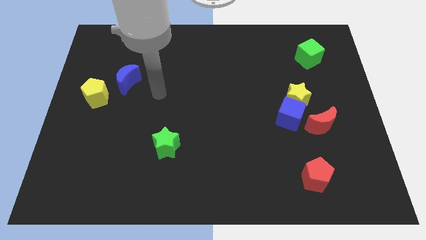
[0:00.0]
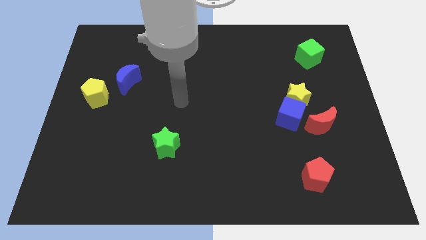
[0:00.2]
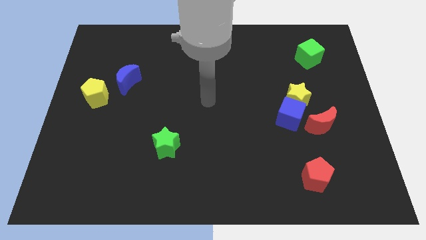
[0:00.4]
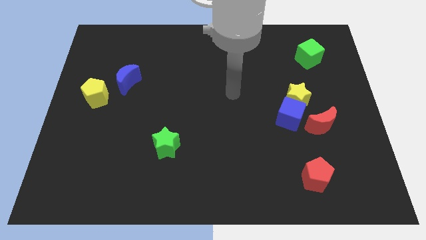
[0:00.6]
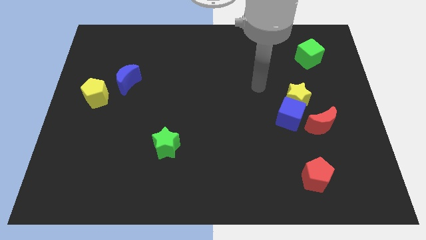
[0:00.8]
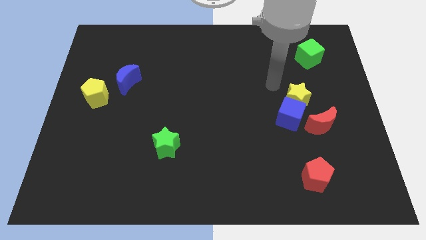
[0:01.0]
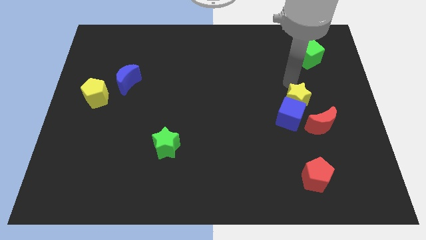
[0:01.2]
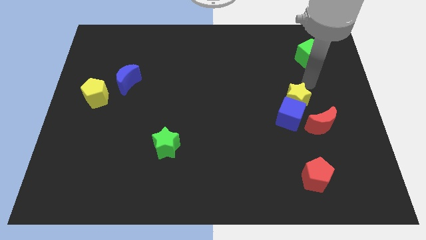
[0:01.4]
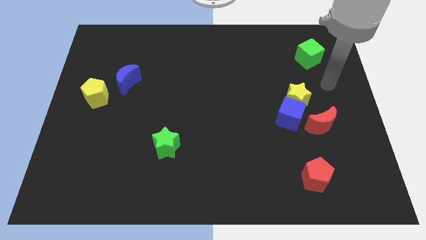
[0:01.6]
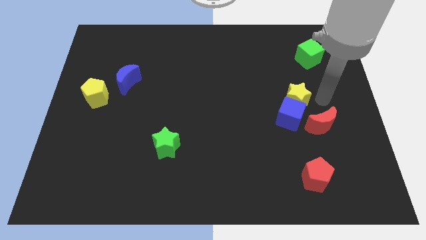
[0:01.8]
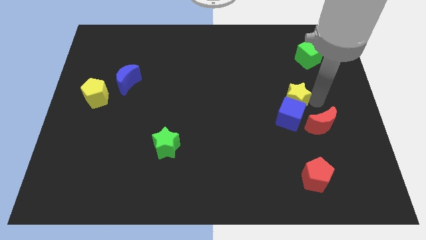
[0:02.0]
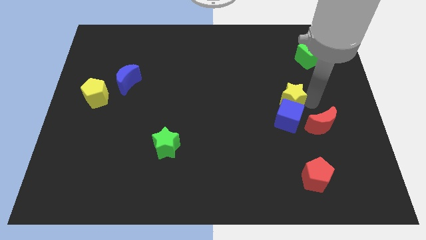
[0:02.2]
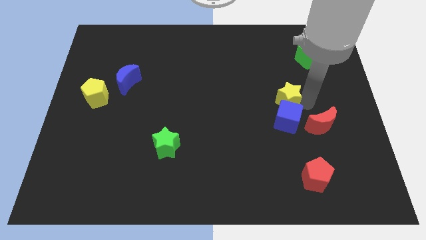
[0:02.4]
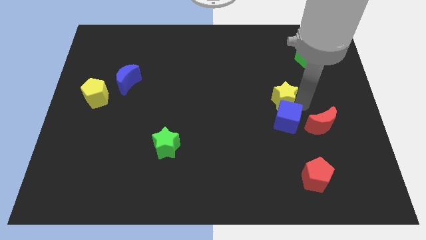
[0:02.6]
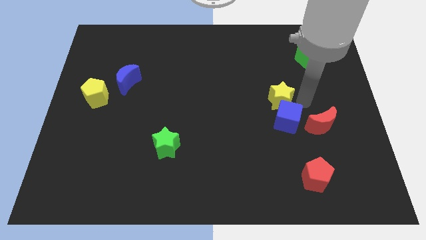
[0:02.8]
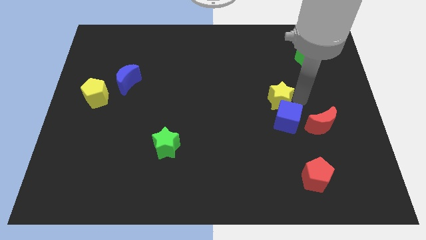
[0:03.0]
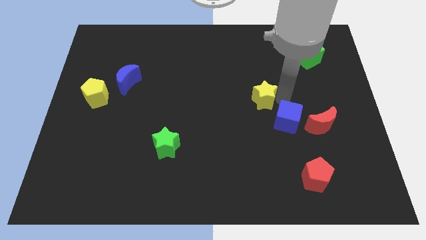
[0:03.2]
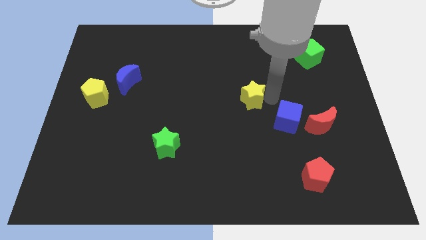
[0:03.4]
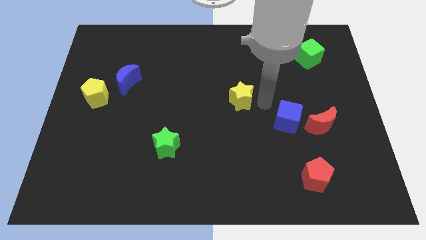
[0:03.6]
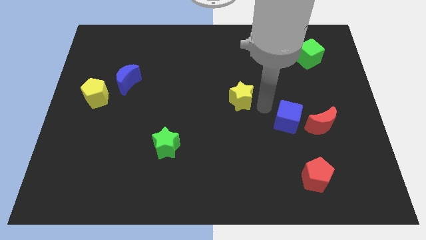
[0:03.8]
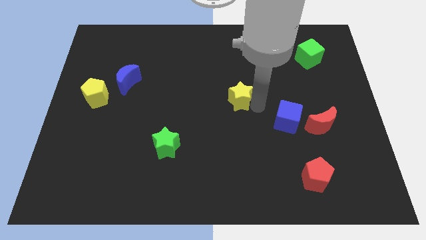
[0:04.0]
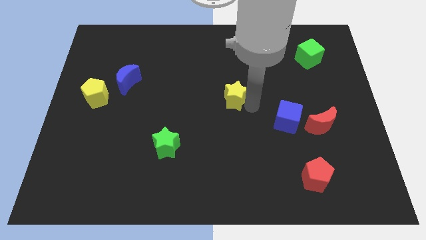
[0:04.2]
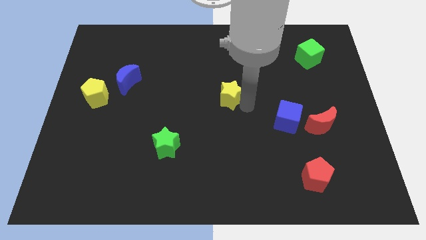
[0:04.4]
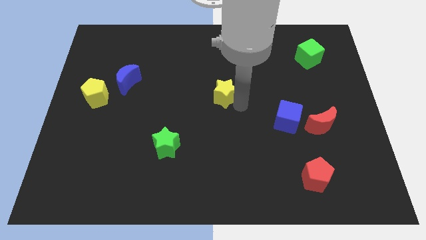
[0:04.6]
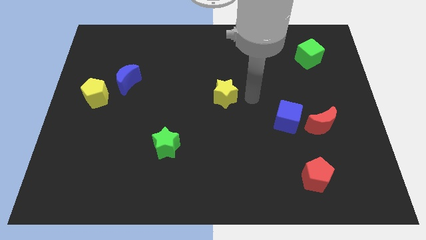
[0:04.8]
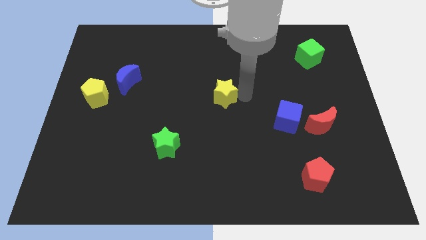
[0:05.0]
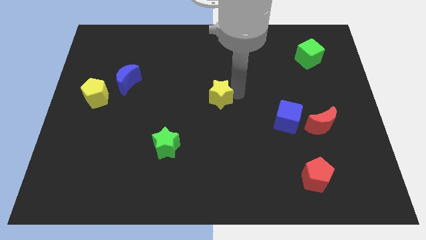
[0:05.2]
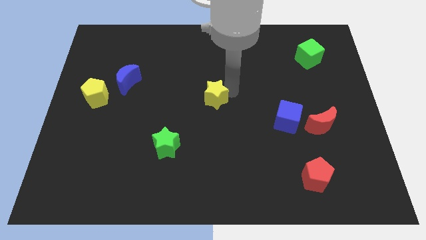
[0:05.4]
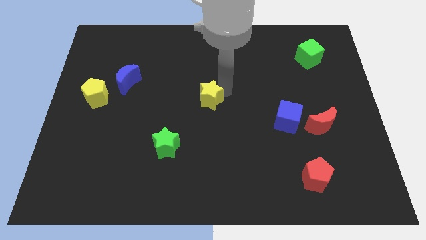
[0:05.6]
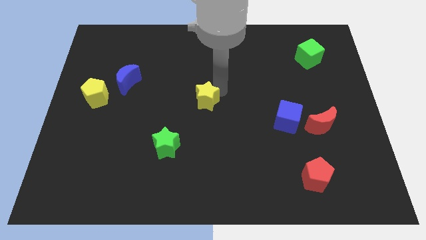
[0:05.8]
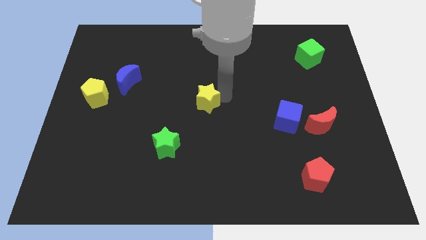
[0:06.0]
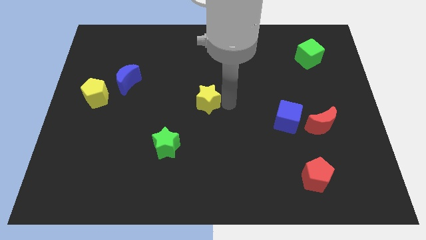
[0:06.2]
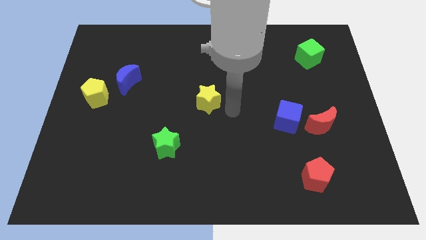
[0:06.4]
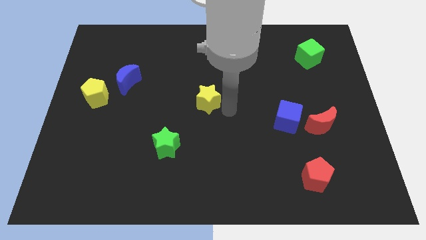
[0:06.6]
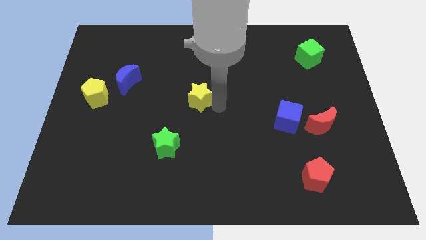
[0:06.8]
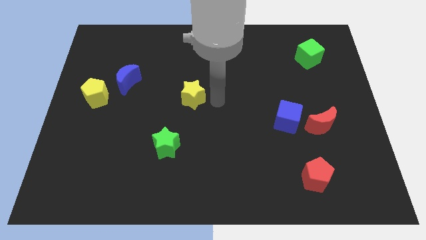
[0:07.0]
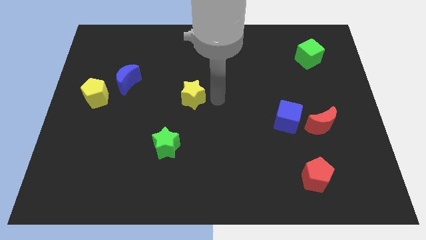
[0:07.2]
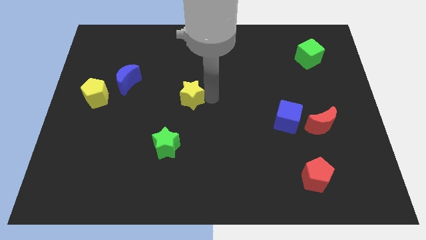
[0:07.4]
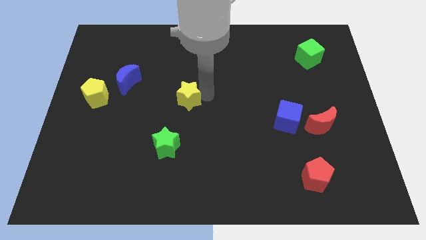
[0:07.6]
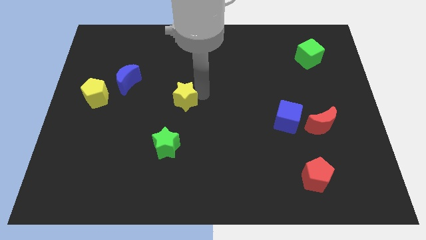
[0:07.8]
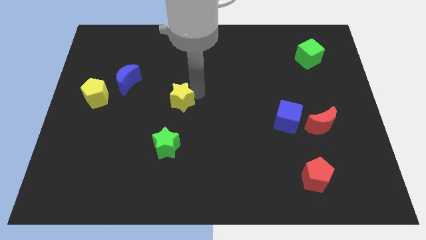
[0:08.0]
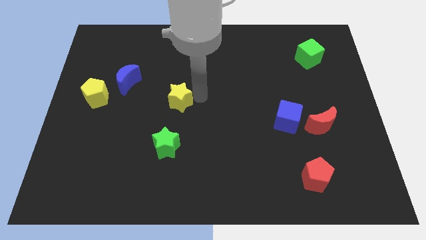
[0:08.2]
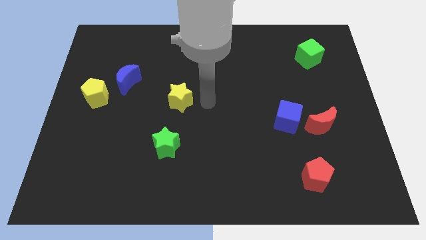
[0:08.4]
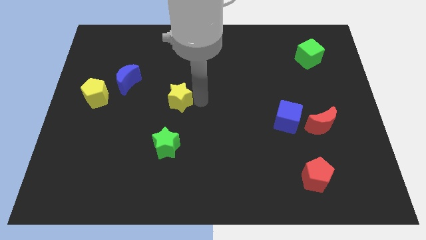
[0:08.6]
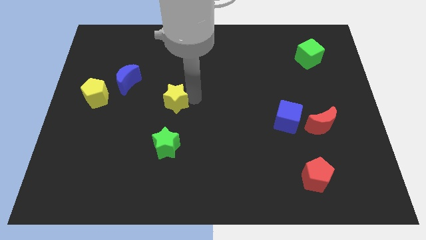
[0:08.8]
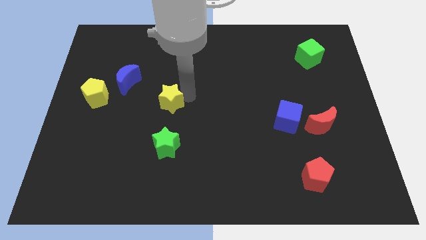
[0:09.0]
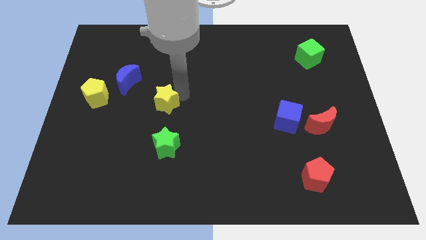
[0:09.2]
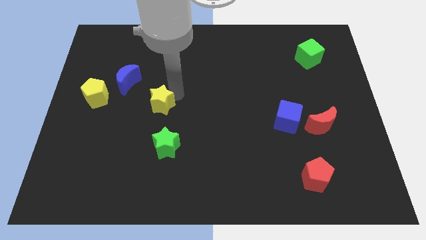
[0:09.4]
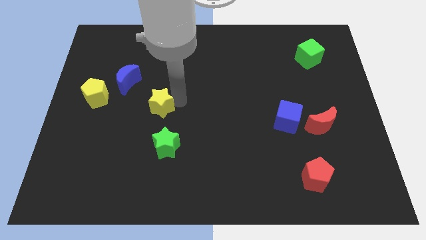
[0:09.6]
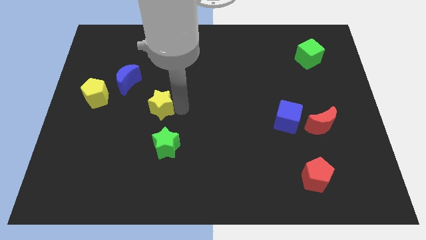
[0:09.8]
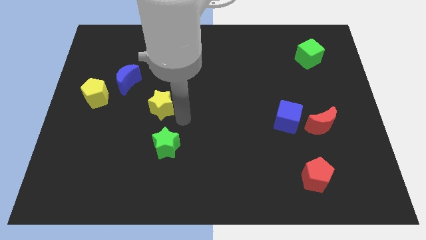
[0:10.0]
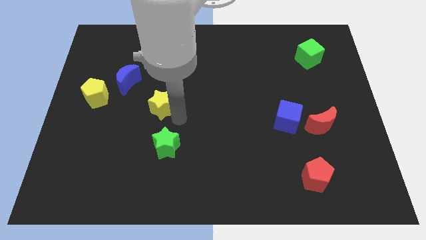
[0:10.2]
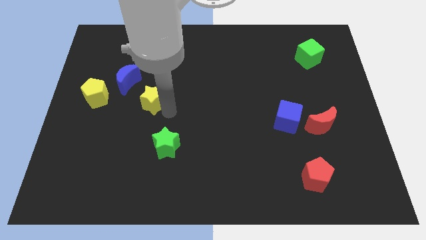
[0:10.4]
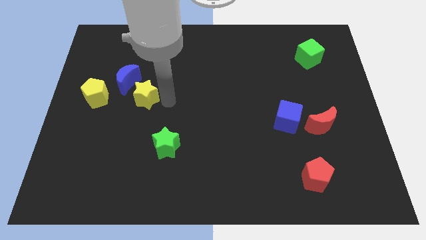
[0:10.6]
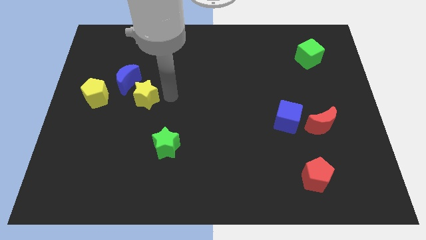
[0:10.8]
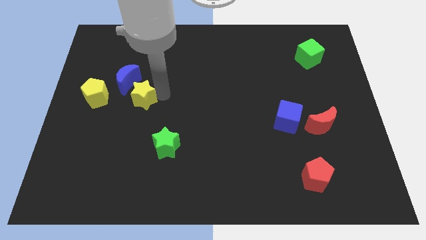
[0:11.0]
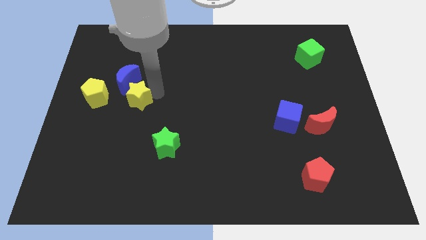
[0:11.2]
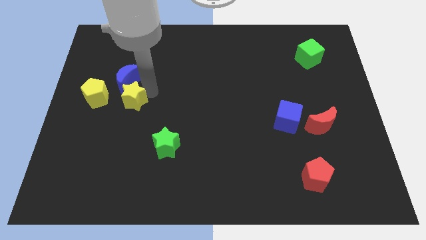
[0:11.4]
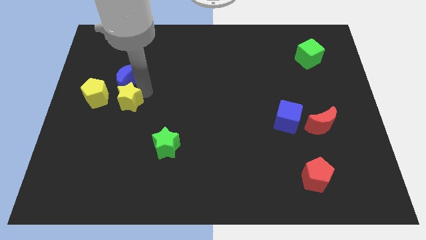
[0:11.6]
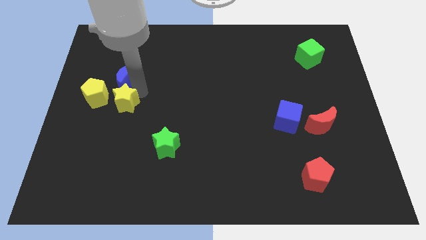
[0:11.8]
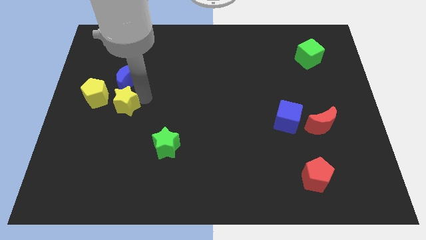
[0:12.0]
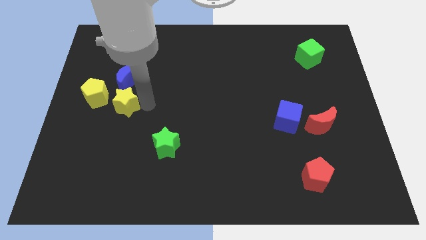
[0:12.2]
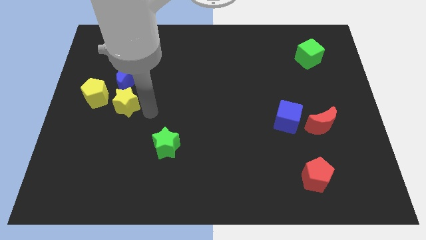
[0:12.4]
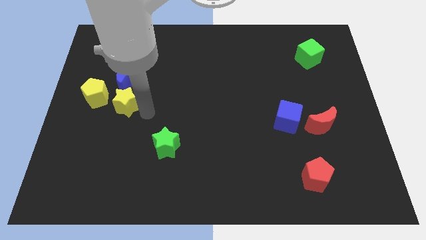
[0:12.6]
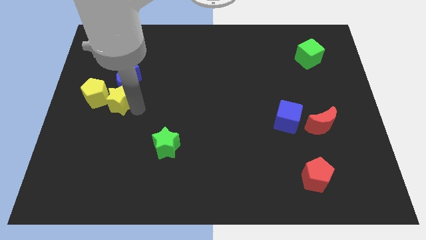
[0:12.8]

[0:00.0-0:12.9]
push the yellow star close to the yellow pentagon
